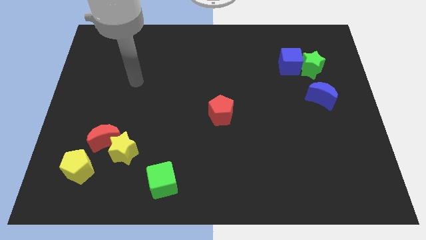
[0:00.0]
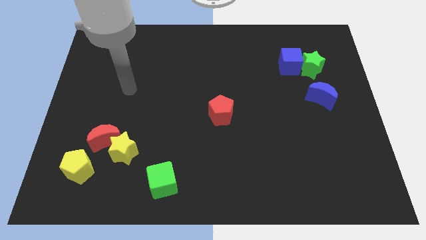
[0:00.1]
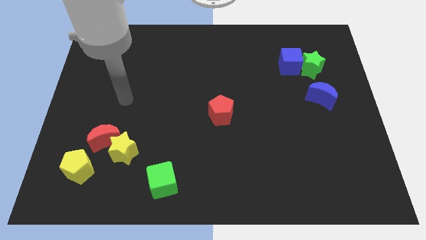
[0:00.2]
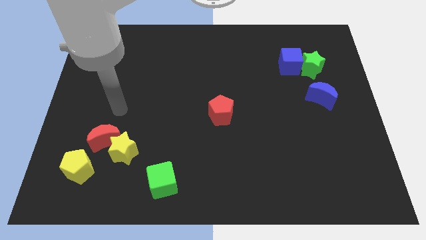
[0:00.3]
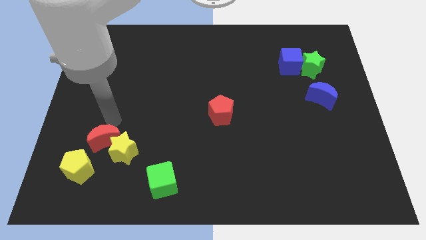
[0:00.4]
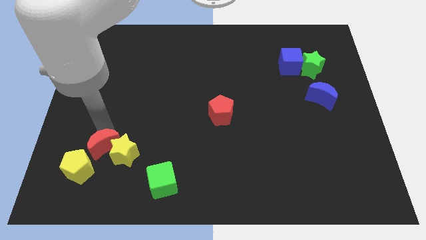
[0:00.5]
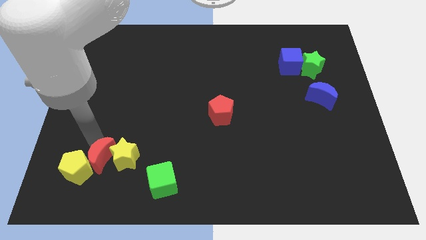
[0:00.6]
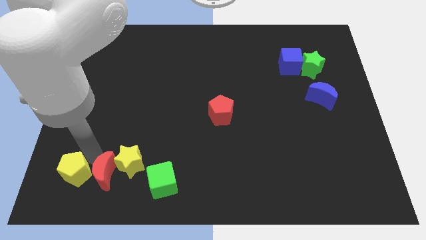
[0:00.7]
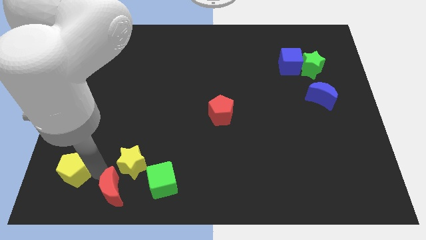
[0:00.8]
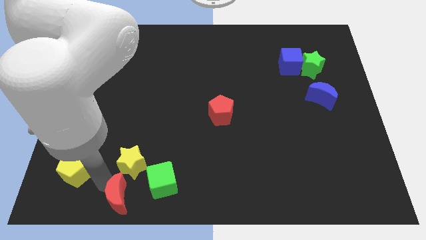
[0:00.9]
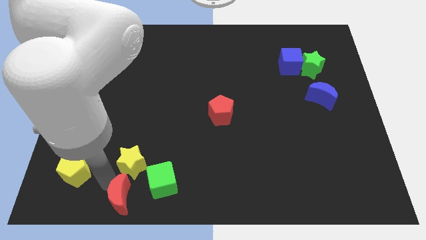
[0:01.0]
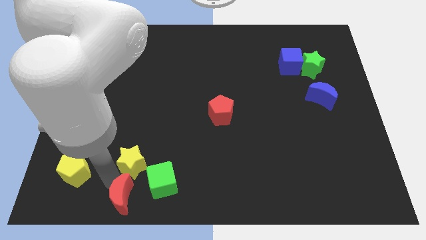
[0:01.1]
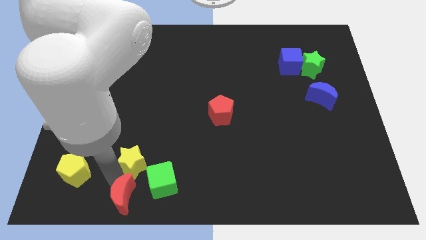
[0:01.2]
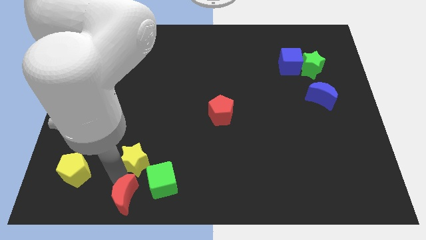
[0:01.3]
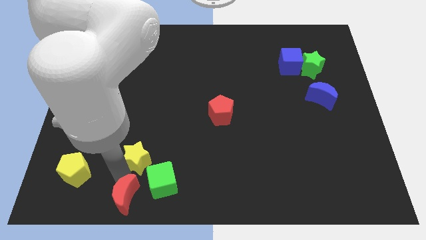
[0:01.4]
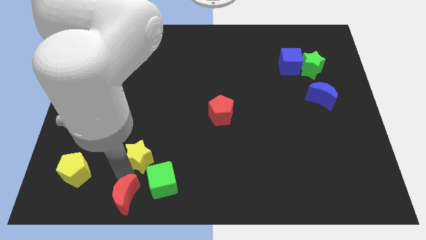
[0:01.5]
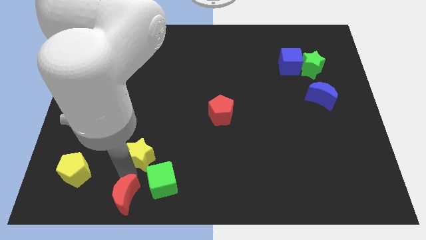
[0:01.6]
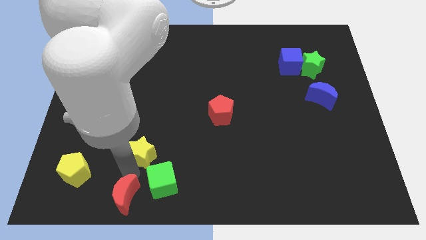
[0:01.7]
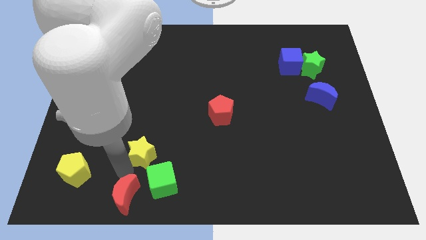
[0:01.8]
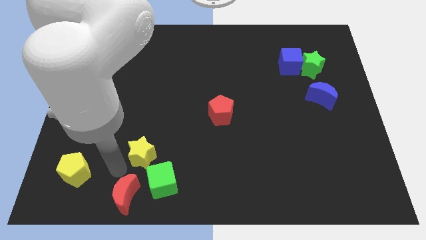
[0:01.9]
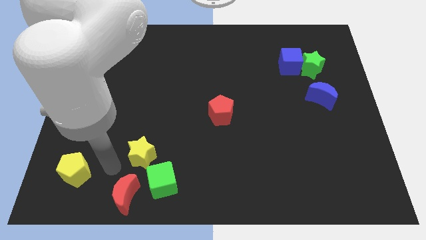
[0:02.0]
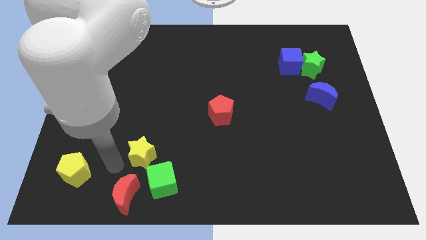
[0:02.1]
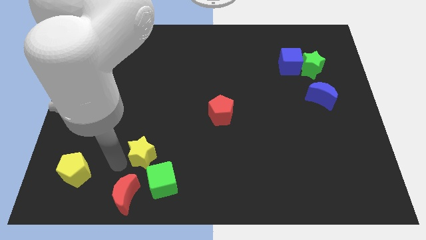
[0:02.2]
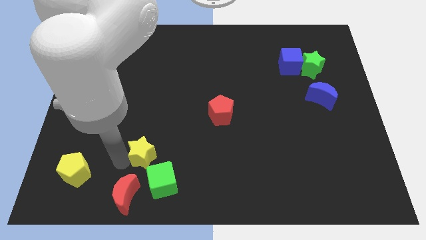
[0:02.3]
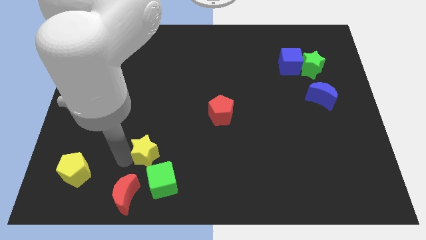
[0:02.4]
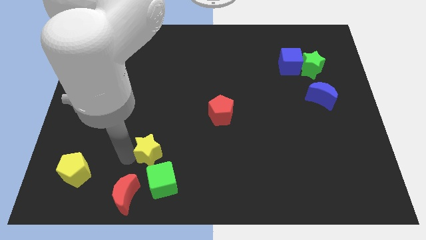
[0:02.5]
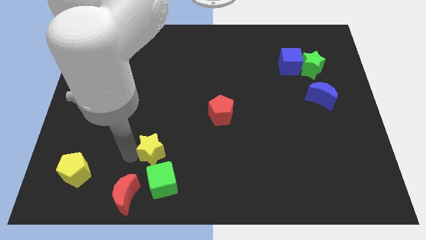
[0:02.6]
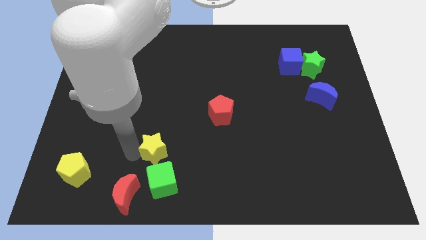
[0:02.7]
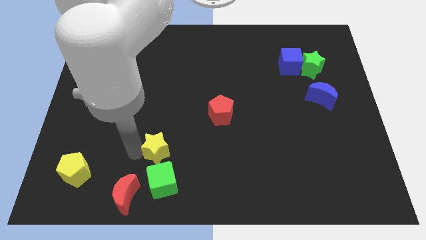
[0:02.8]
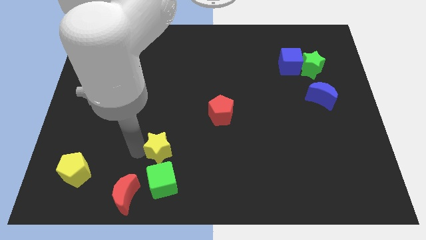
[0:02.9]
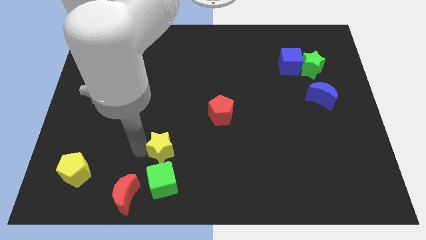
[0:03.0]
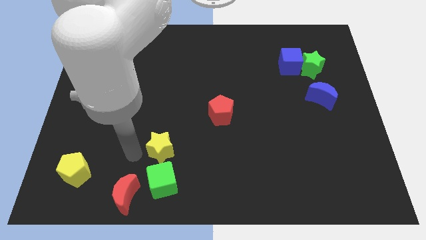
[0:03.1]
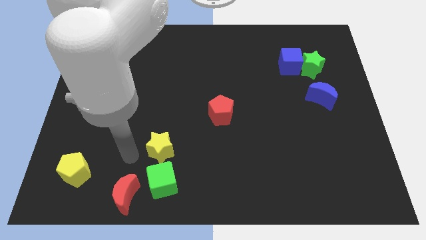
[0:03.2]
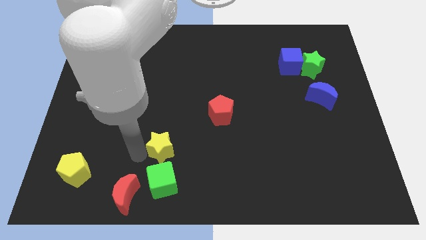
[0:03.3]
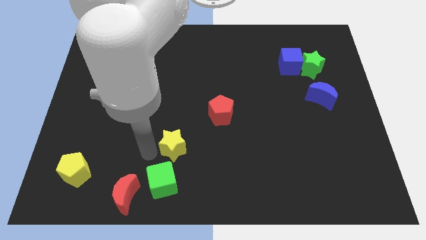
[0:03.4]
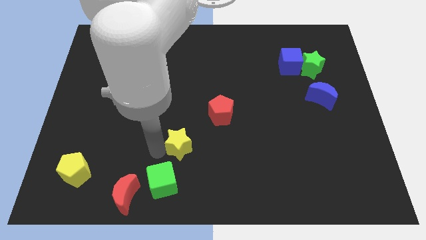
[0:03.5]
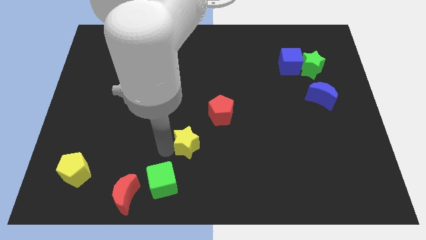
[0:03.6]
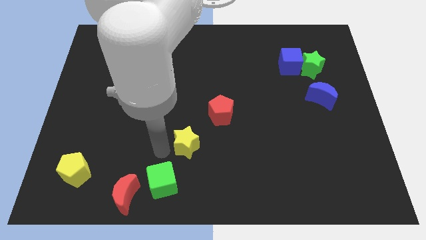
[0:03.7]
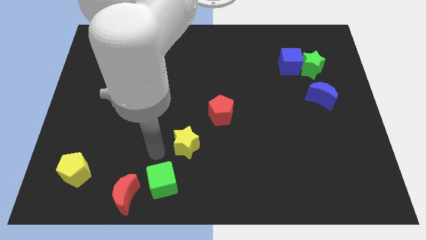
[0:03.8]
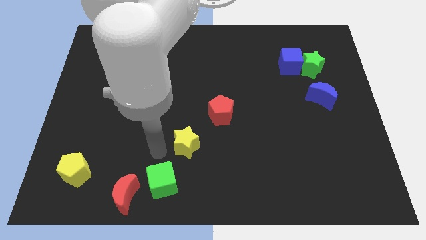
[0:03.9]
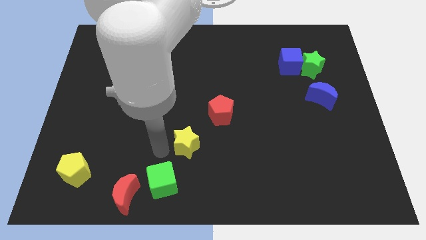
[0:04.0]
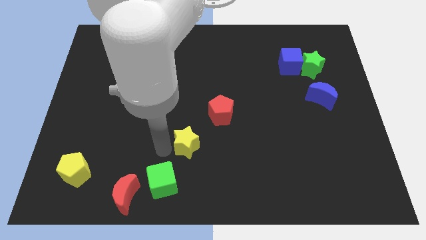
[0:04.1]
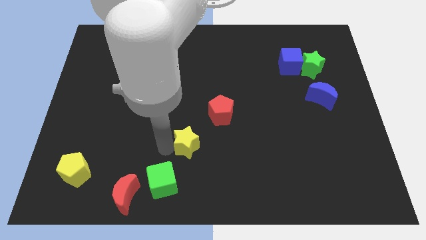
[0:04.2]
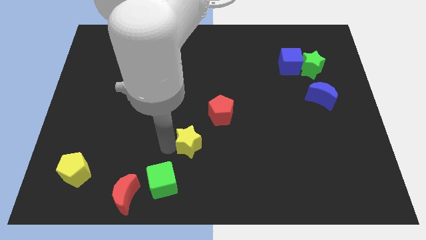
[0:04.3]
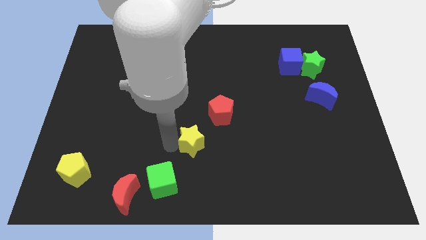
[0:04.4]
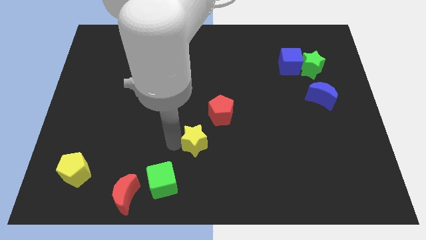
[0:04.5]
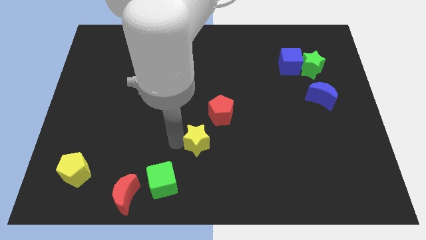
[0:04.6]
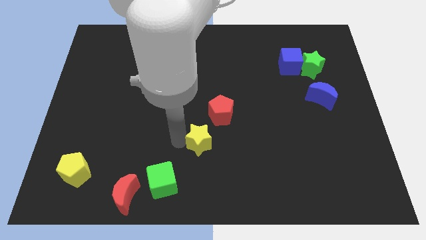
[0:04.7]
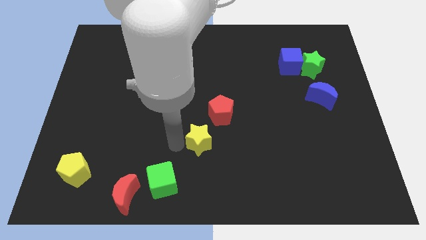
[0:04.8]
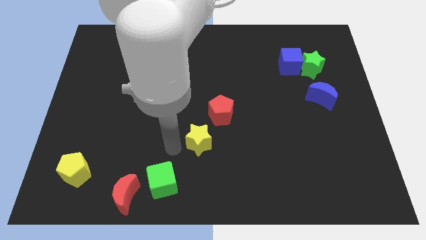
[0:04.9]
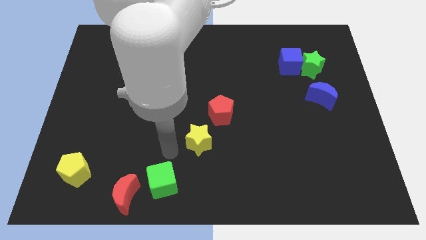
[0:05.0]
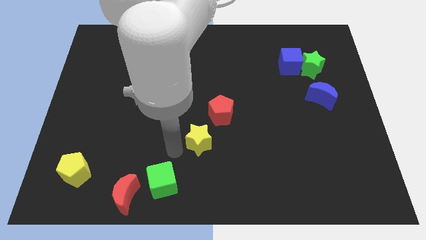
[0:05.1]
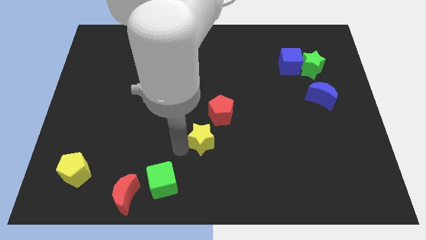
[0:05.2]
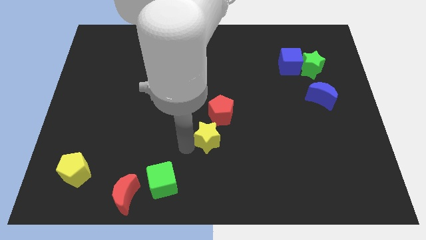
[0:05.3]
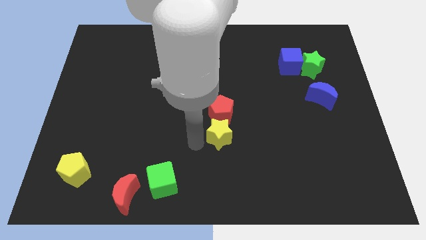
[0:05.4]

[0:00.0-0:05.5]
slide the yellow star to the bottom right of the red pentagon

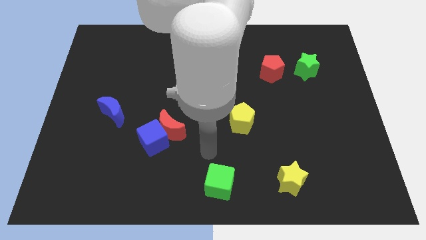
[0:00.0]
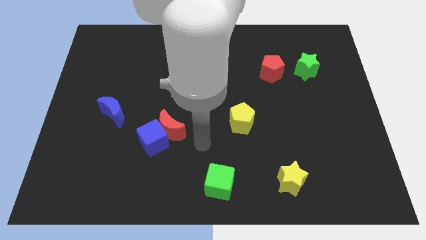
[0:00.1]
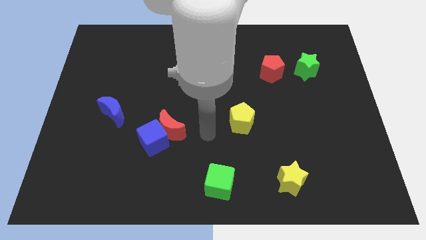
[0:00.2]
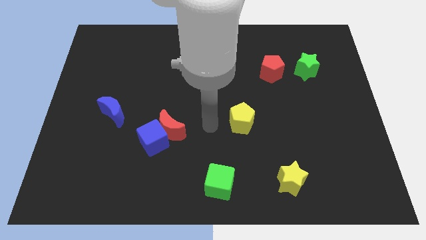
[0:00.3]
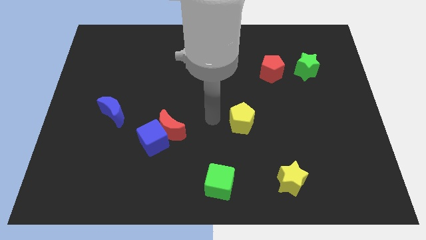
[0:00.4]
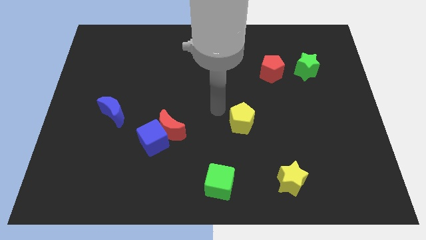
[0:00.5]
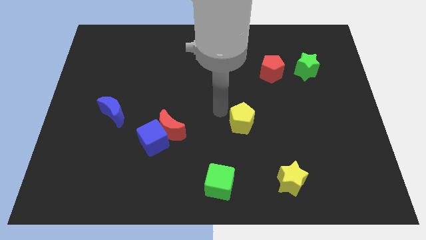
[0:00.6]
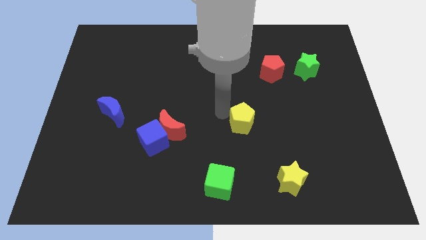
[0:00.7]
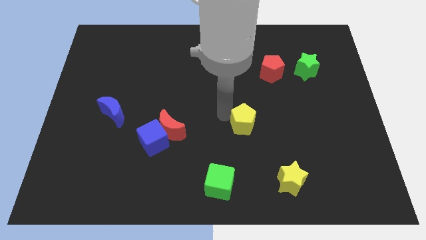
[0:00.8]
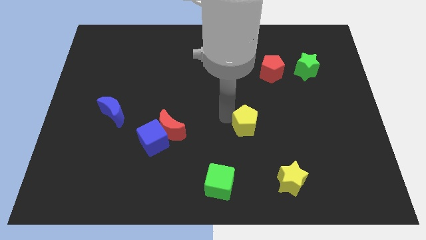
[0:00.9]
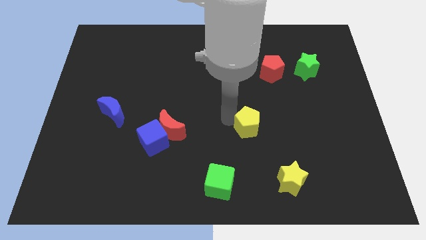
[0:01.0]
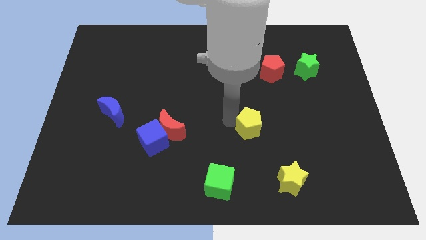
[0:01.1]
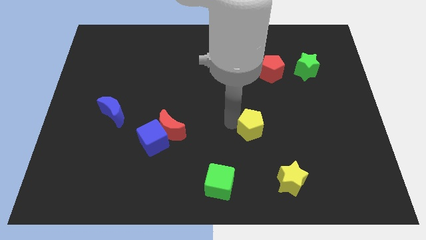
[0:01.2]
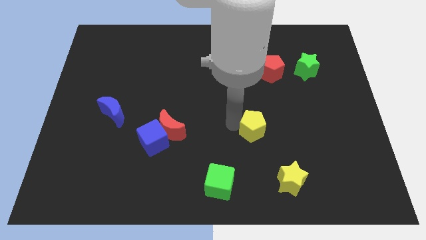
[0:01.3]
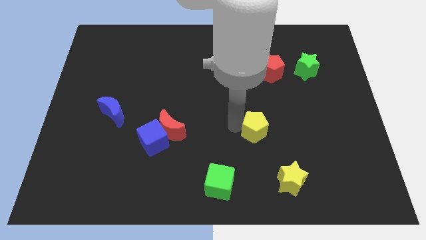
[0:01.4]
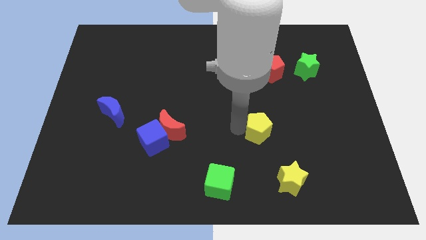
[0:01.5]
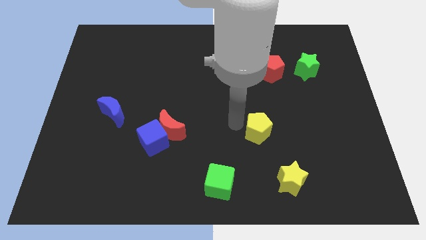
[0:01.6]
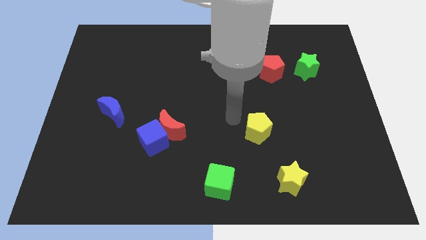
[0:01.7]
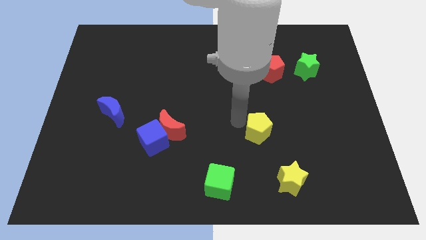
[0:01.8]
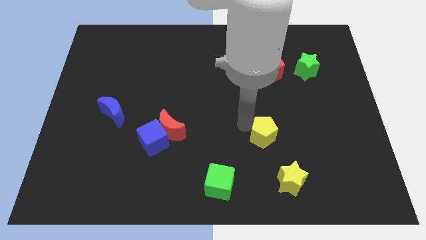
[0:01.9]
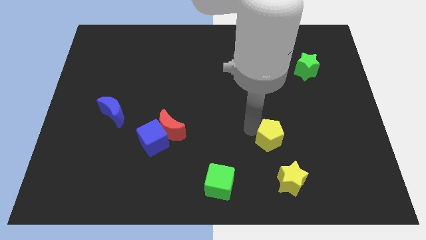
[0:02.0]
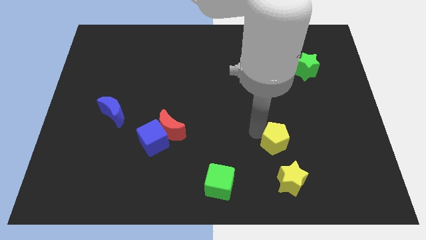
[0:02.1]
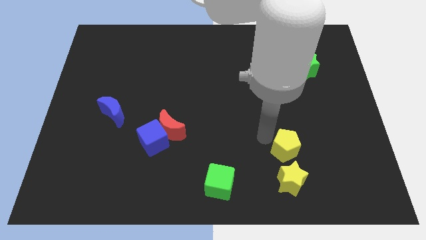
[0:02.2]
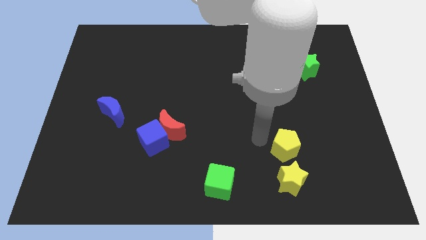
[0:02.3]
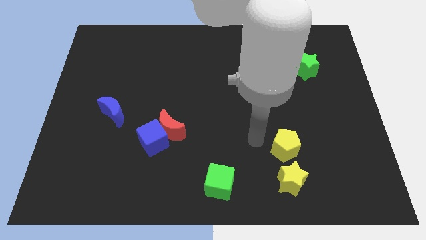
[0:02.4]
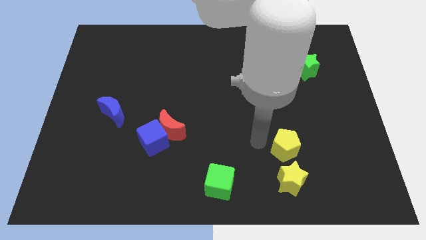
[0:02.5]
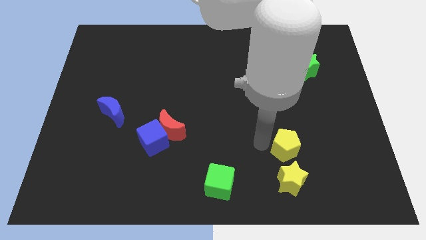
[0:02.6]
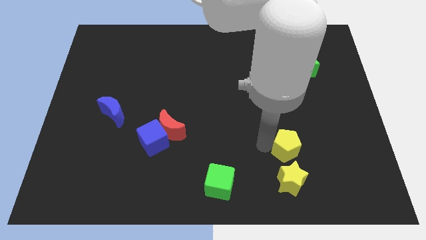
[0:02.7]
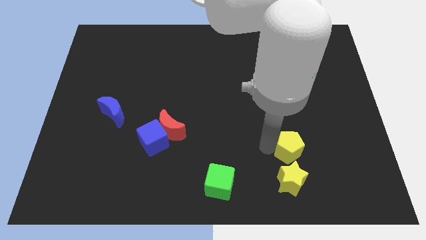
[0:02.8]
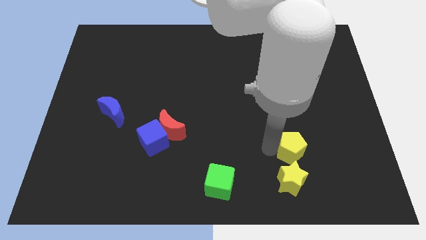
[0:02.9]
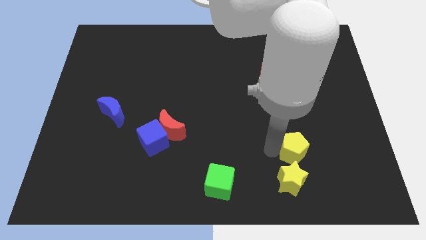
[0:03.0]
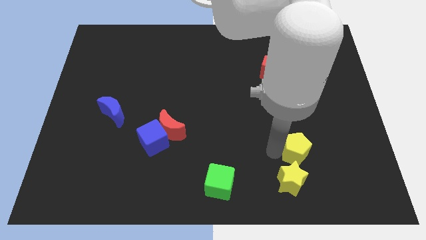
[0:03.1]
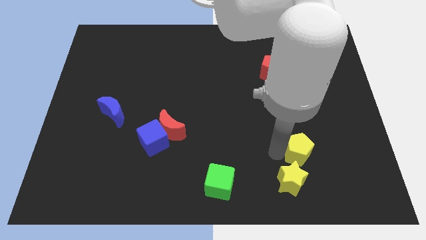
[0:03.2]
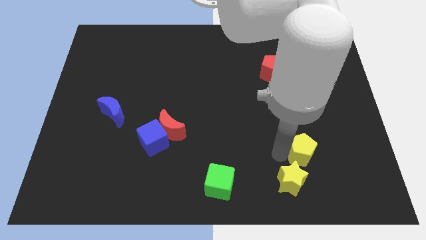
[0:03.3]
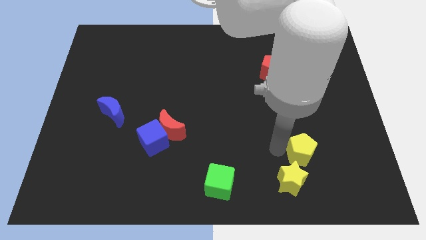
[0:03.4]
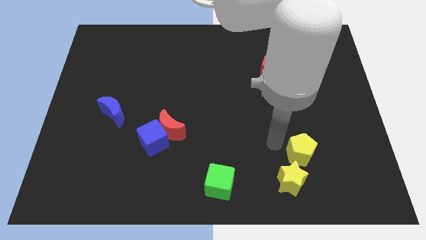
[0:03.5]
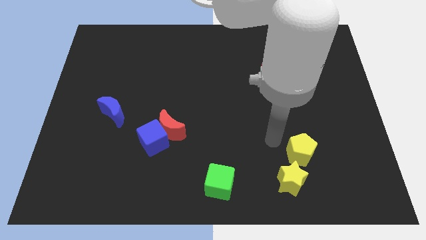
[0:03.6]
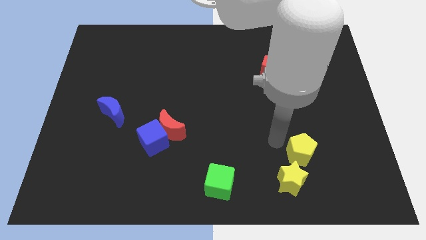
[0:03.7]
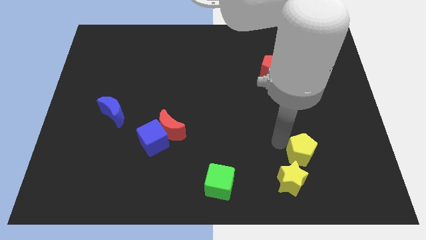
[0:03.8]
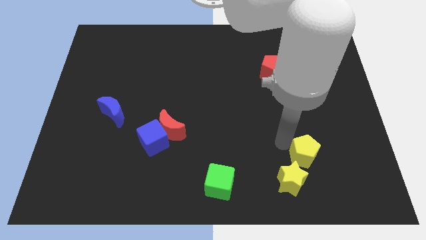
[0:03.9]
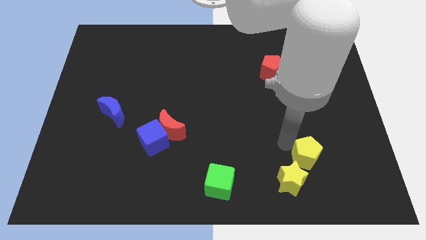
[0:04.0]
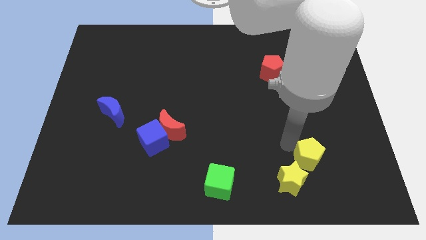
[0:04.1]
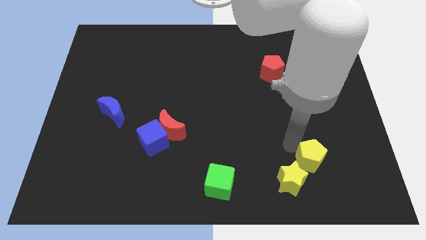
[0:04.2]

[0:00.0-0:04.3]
put the yellow pentagon just right of the yellow star
